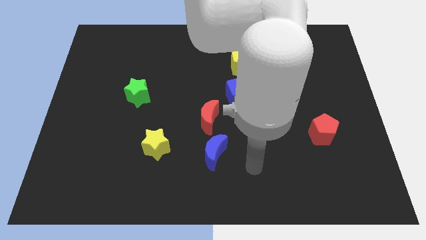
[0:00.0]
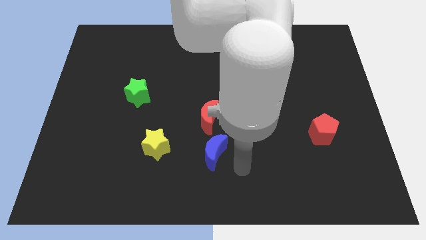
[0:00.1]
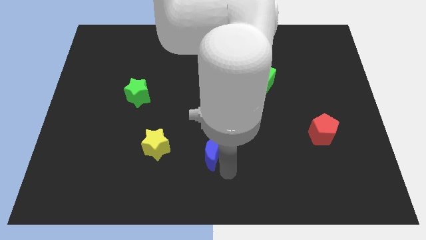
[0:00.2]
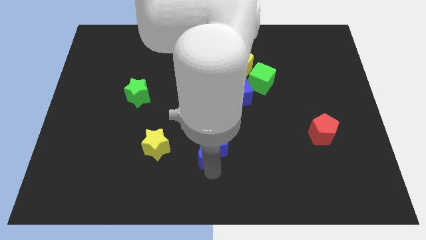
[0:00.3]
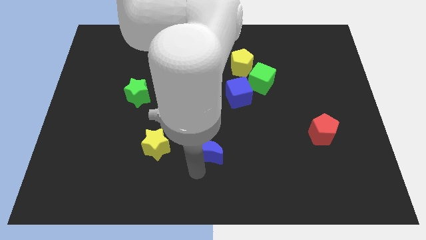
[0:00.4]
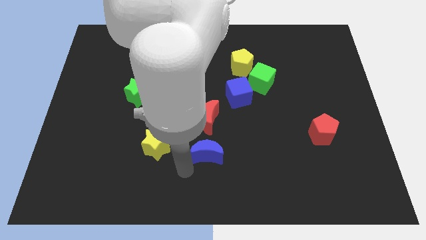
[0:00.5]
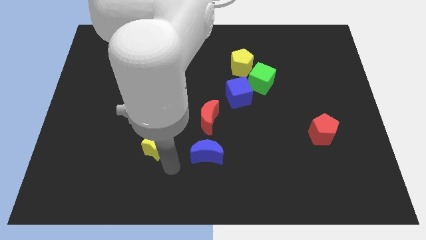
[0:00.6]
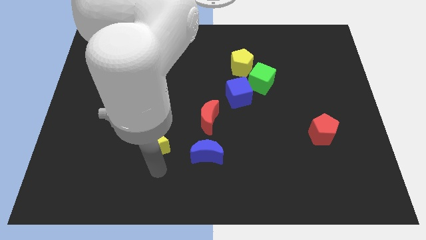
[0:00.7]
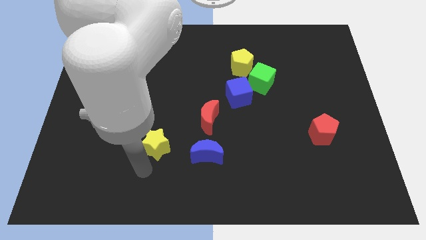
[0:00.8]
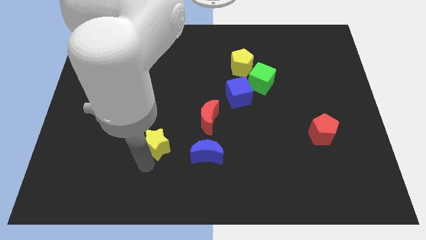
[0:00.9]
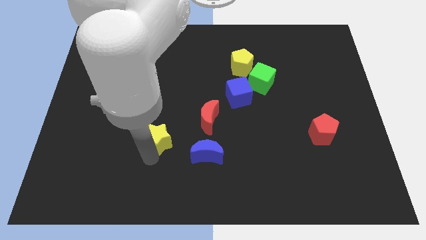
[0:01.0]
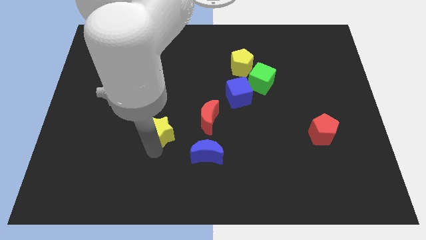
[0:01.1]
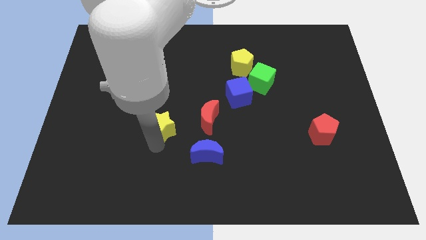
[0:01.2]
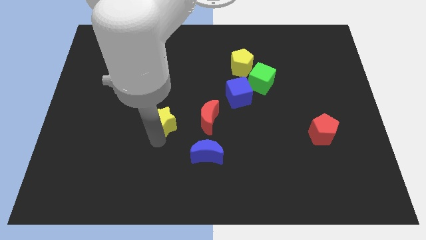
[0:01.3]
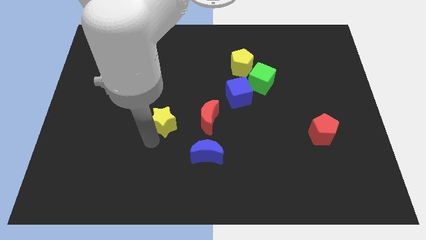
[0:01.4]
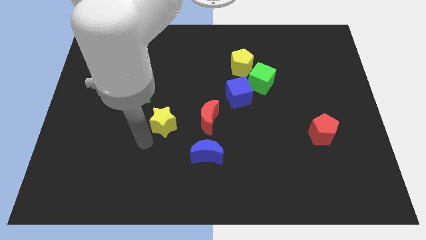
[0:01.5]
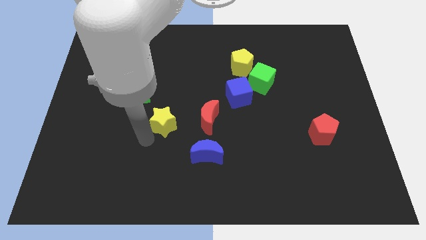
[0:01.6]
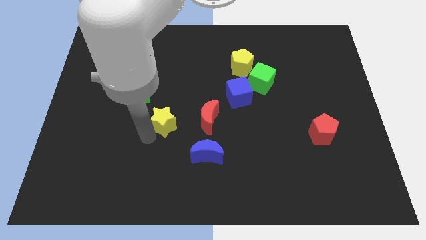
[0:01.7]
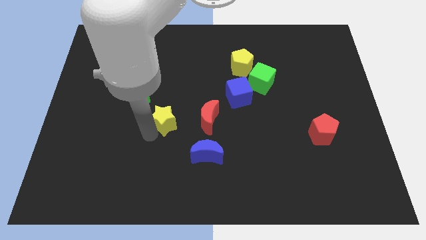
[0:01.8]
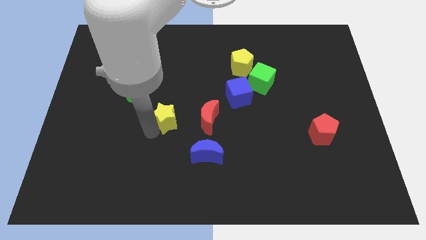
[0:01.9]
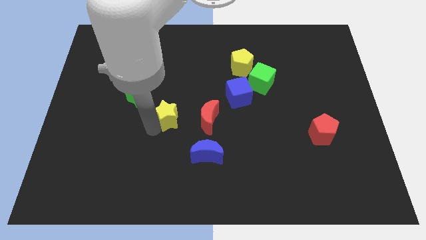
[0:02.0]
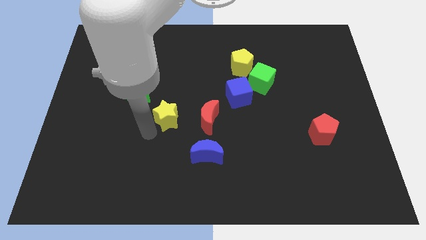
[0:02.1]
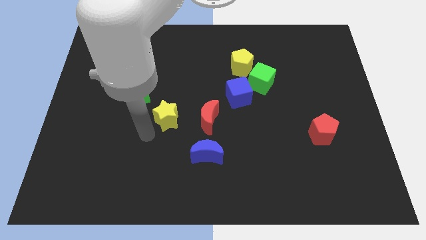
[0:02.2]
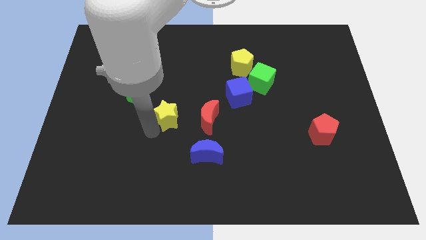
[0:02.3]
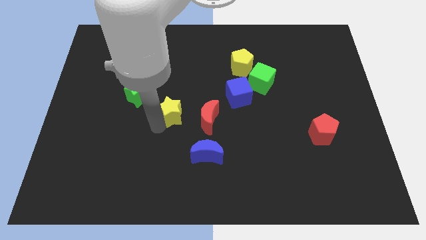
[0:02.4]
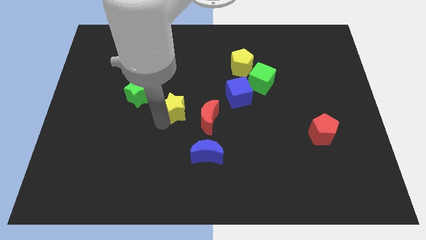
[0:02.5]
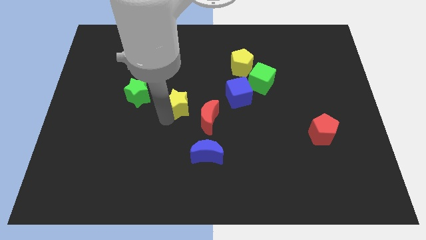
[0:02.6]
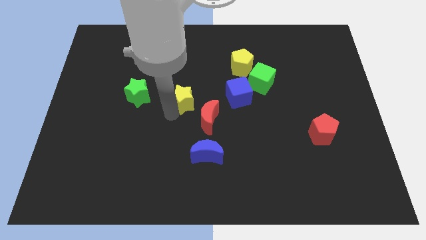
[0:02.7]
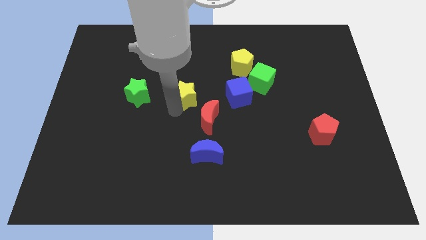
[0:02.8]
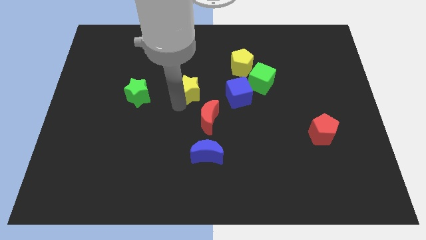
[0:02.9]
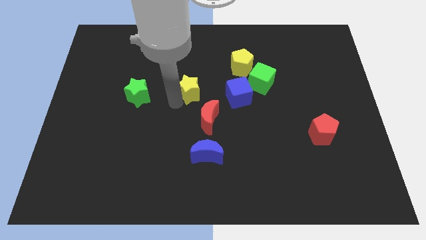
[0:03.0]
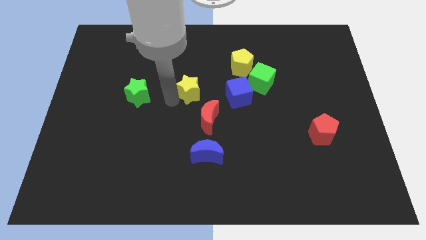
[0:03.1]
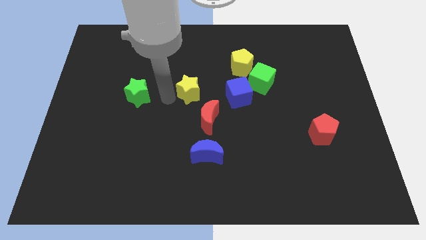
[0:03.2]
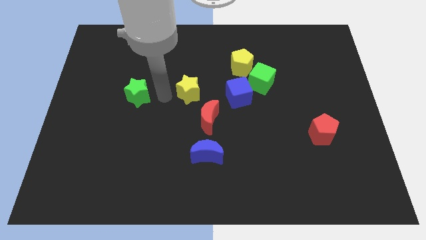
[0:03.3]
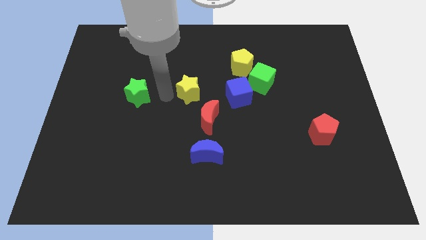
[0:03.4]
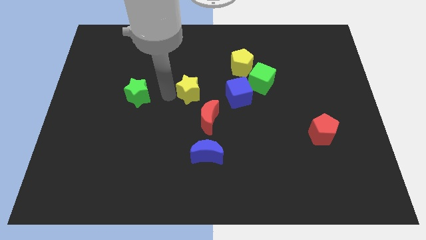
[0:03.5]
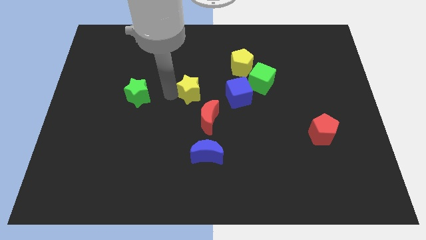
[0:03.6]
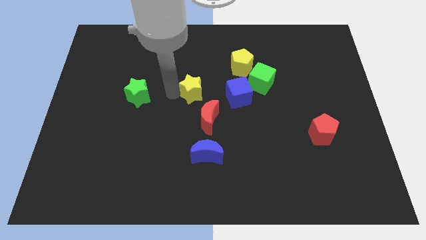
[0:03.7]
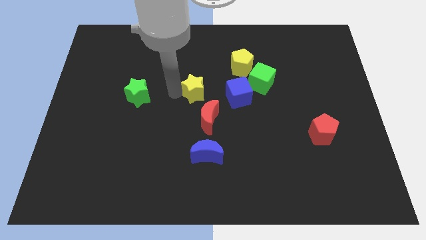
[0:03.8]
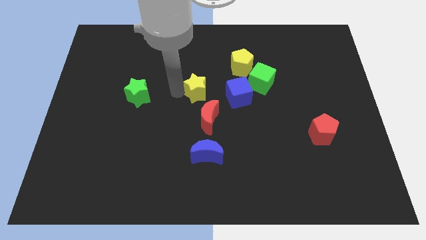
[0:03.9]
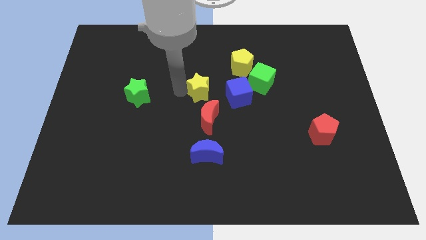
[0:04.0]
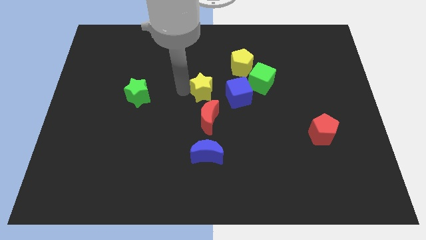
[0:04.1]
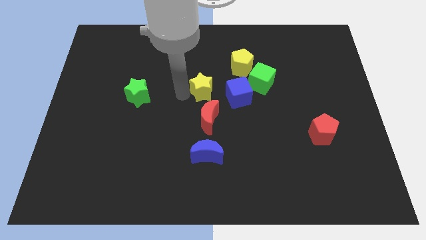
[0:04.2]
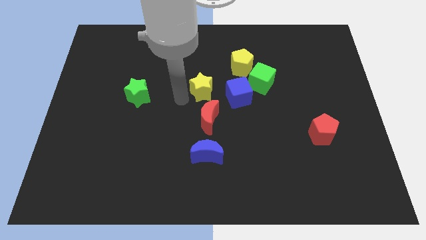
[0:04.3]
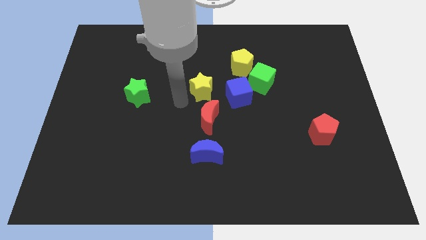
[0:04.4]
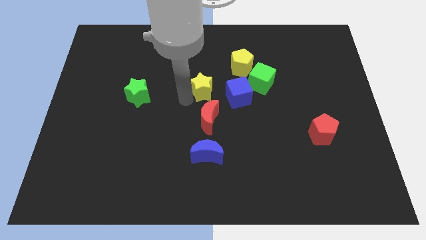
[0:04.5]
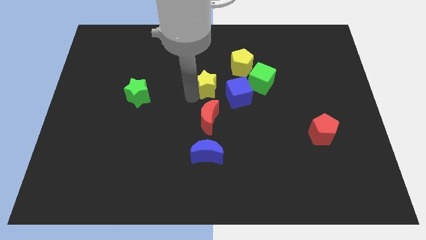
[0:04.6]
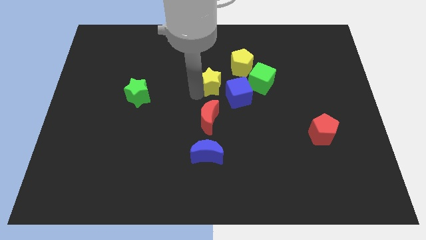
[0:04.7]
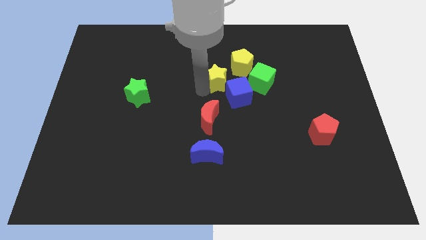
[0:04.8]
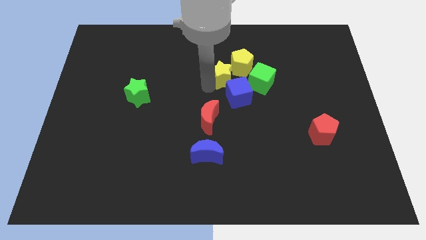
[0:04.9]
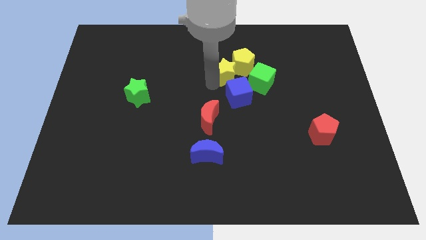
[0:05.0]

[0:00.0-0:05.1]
put the yellow star next to the yellow pentagon

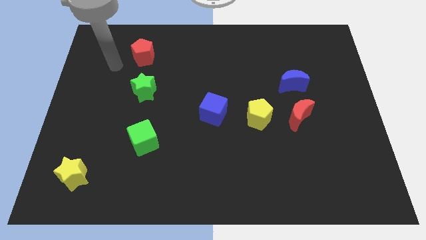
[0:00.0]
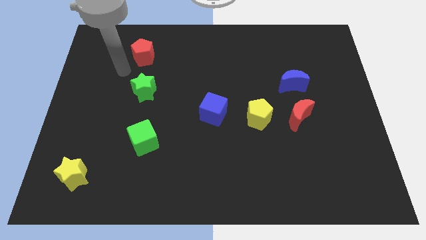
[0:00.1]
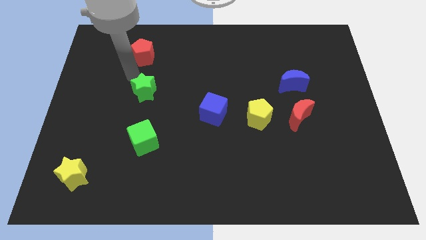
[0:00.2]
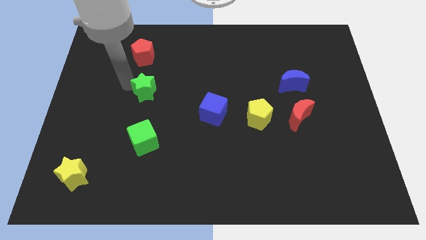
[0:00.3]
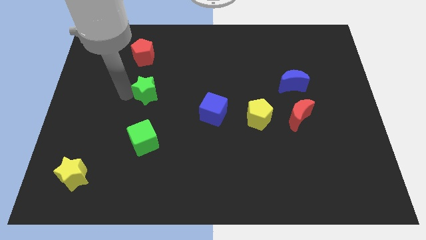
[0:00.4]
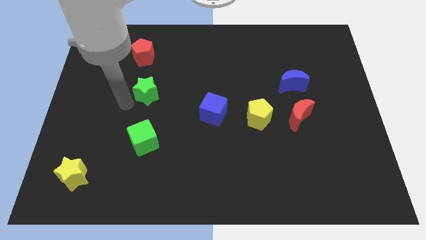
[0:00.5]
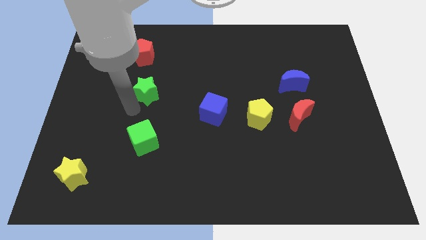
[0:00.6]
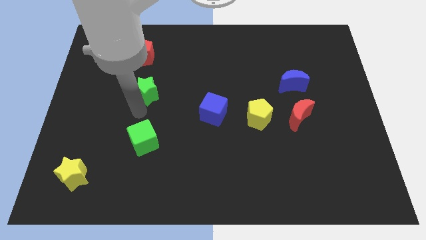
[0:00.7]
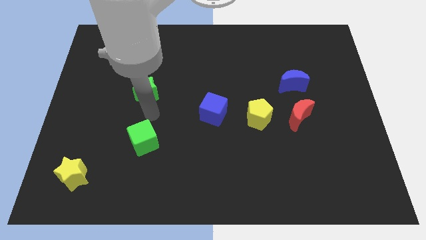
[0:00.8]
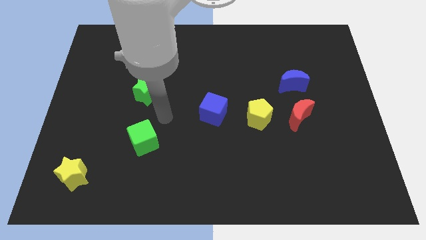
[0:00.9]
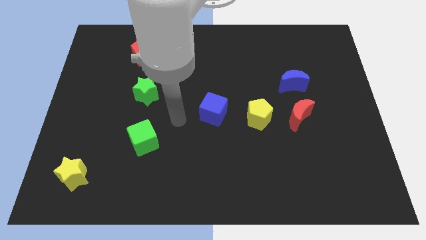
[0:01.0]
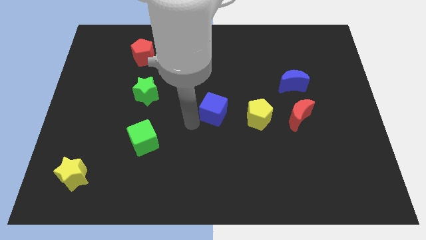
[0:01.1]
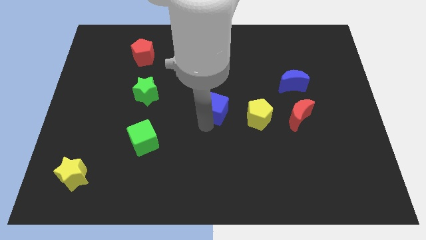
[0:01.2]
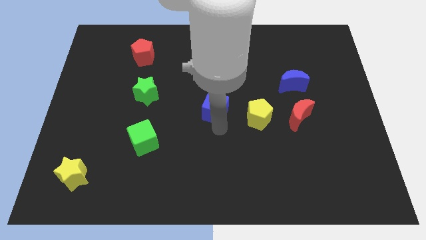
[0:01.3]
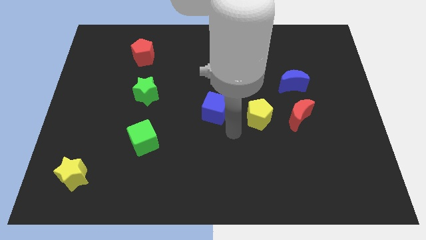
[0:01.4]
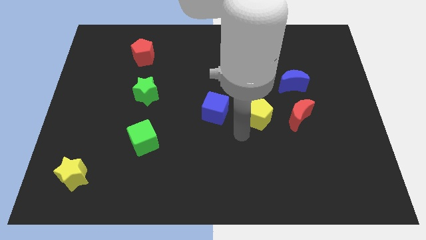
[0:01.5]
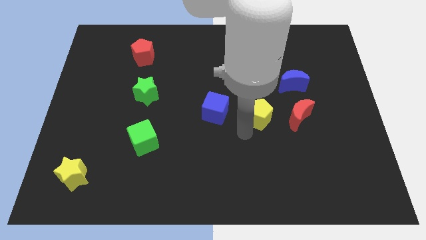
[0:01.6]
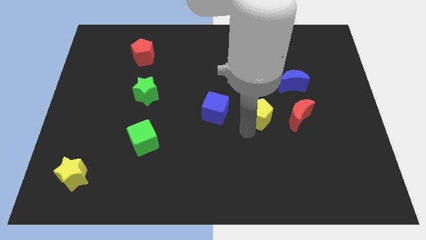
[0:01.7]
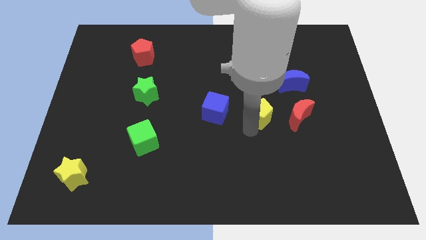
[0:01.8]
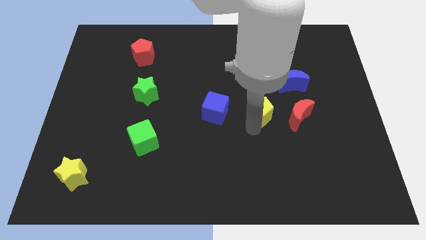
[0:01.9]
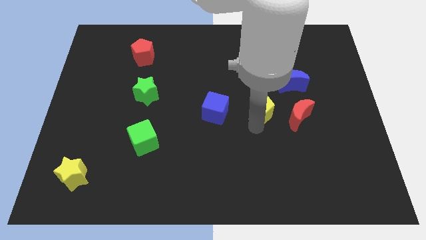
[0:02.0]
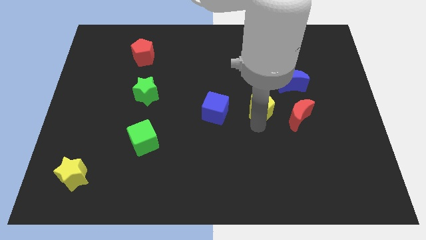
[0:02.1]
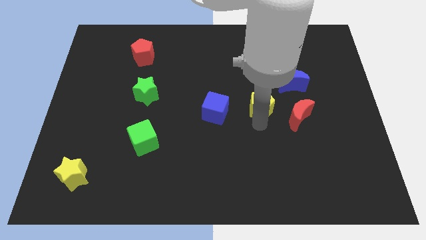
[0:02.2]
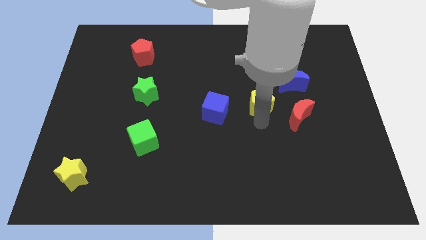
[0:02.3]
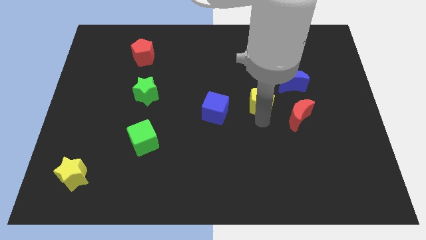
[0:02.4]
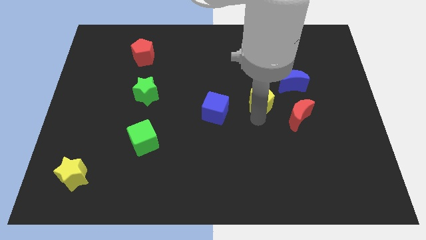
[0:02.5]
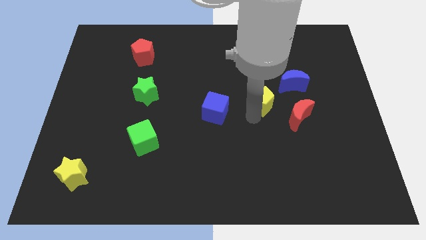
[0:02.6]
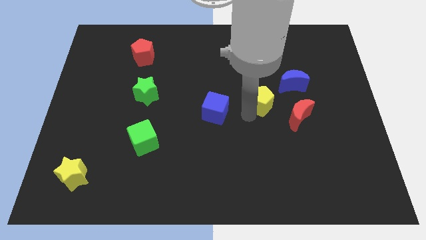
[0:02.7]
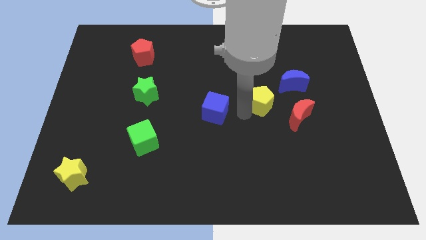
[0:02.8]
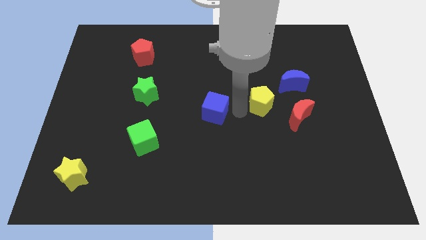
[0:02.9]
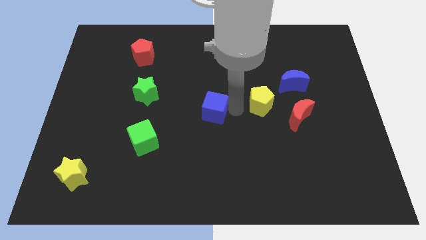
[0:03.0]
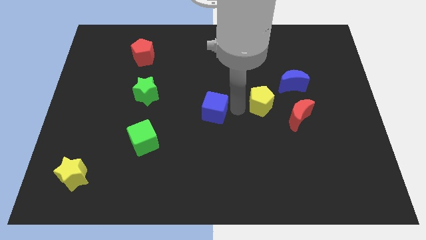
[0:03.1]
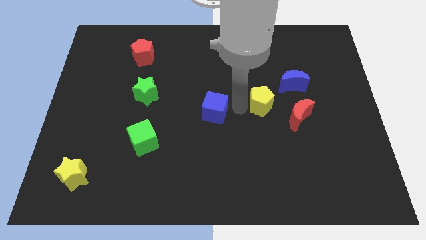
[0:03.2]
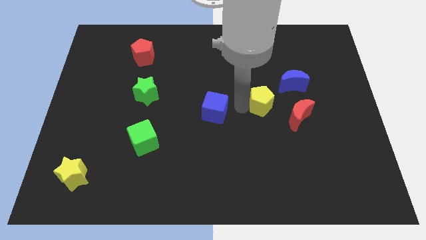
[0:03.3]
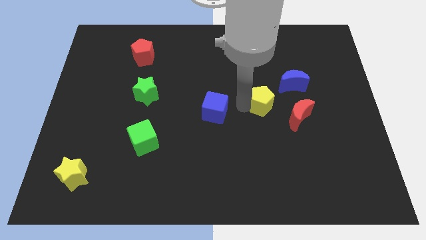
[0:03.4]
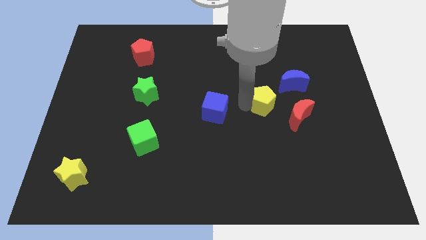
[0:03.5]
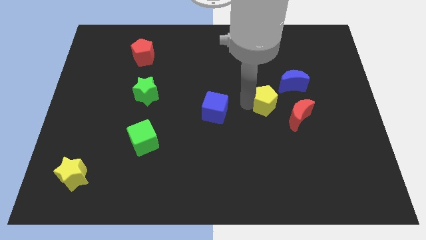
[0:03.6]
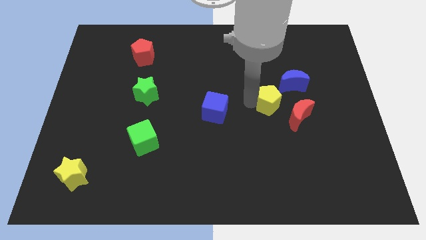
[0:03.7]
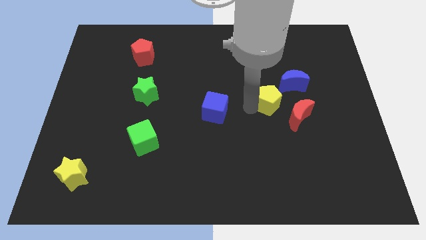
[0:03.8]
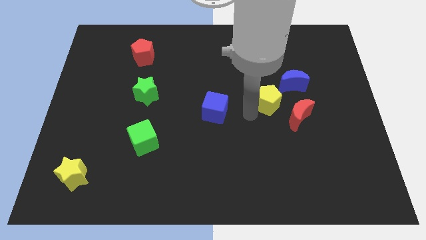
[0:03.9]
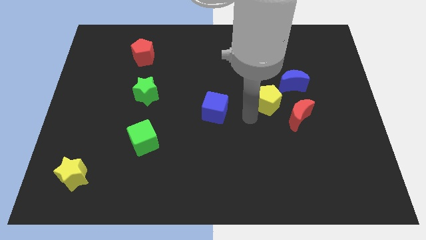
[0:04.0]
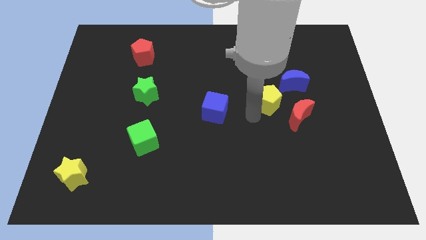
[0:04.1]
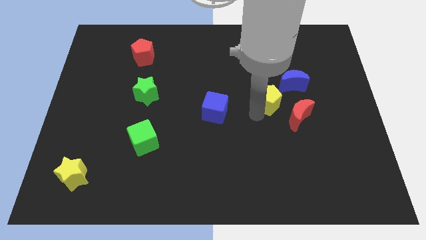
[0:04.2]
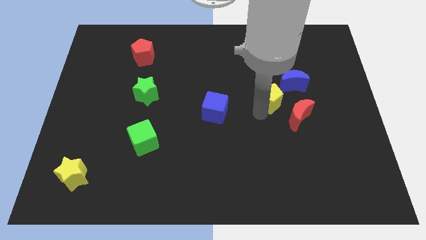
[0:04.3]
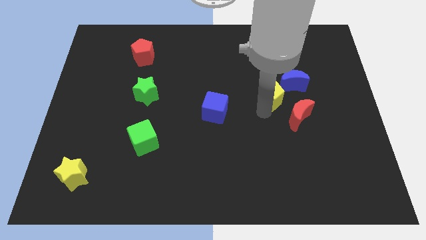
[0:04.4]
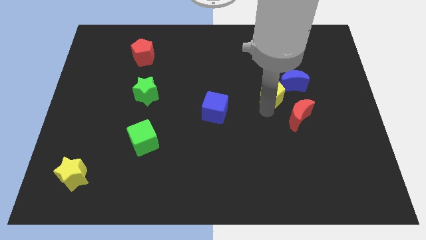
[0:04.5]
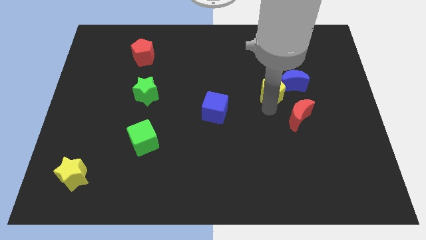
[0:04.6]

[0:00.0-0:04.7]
move the yellow pentagon next to the blue moon
